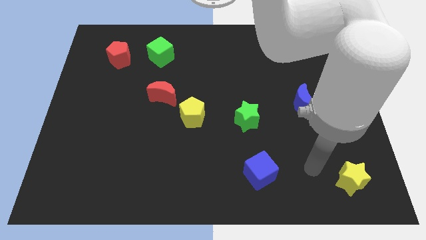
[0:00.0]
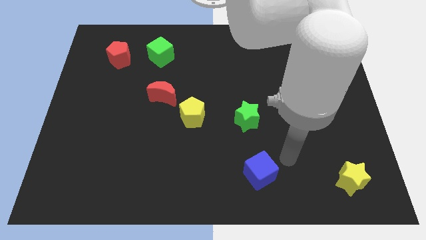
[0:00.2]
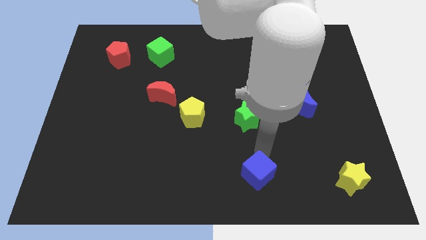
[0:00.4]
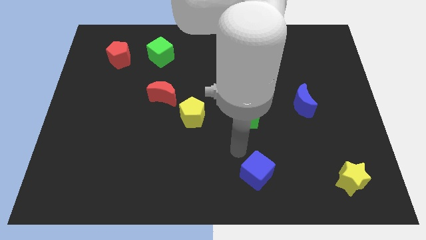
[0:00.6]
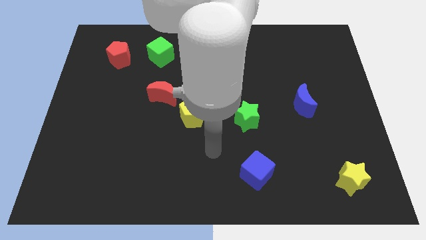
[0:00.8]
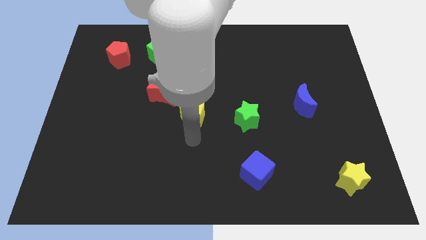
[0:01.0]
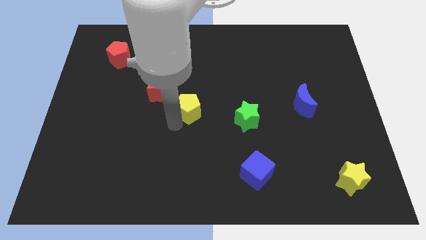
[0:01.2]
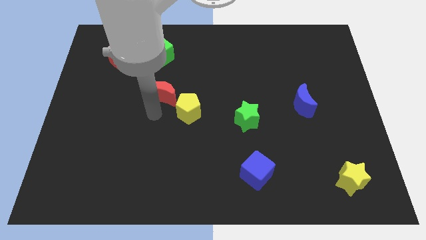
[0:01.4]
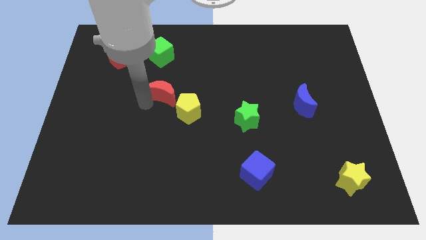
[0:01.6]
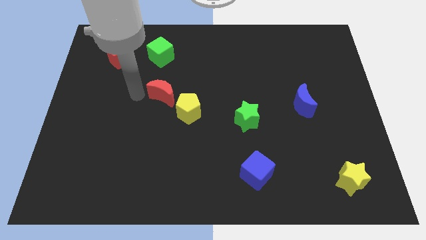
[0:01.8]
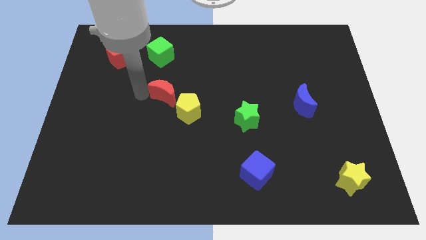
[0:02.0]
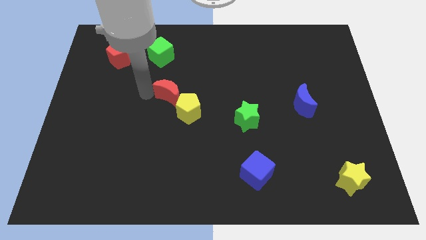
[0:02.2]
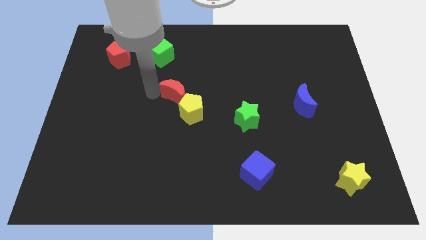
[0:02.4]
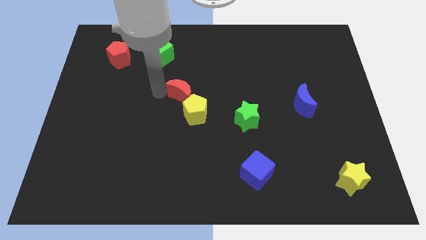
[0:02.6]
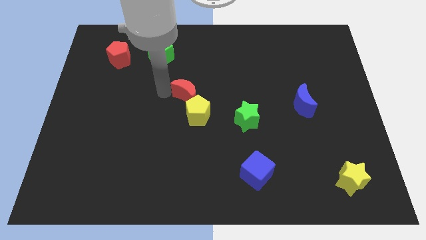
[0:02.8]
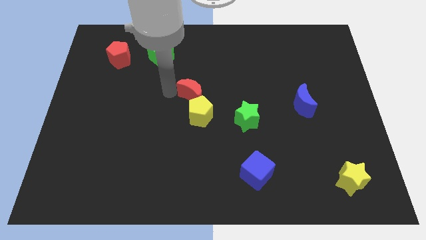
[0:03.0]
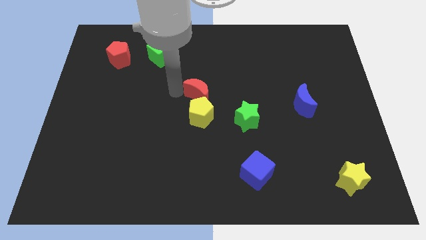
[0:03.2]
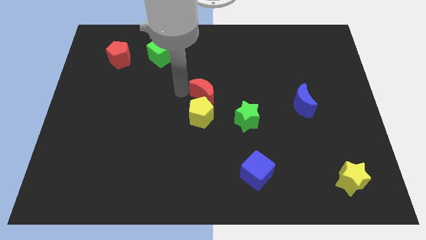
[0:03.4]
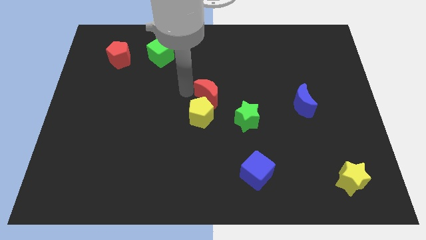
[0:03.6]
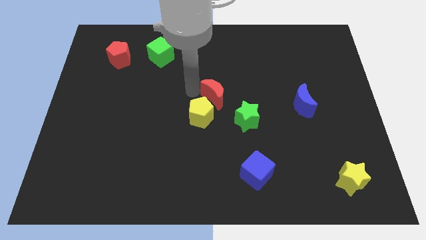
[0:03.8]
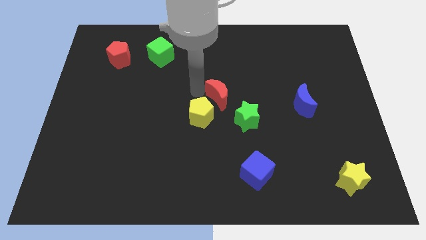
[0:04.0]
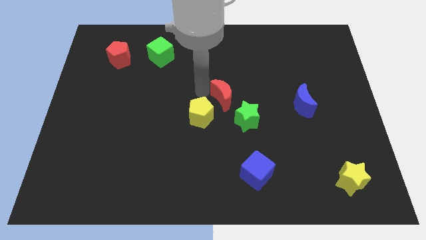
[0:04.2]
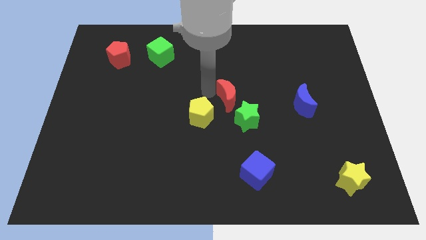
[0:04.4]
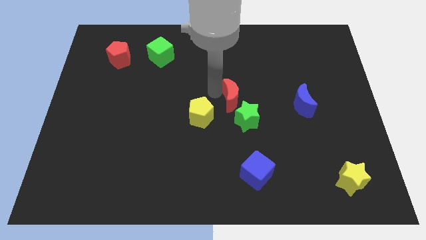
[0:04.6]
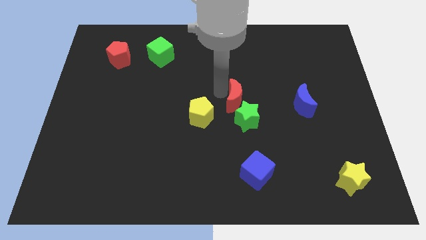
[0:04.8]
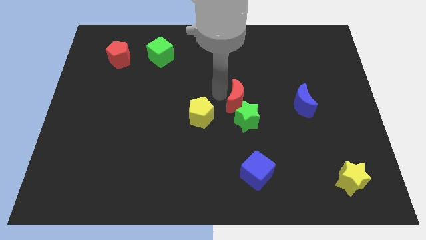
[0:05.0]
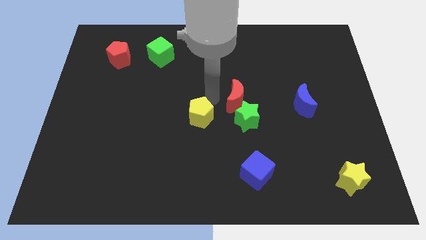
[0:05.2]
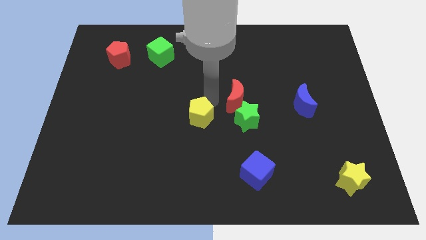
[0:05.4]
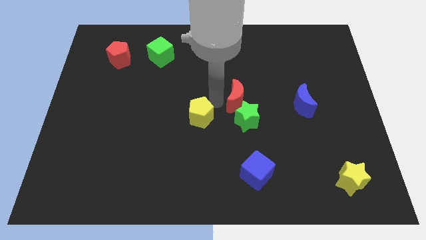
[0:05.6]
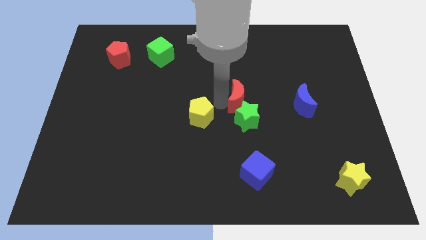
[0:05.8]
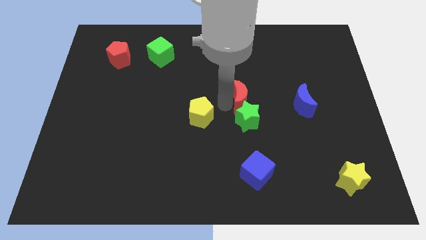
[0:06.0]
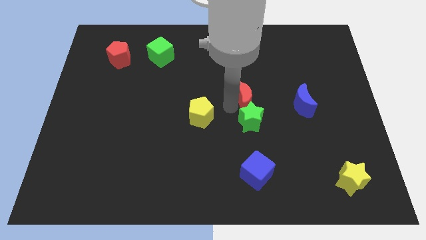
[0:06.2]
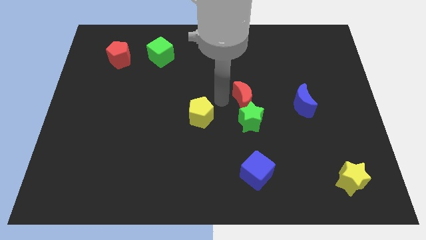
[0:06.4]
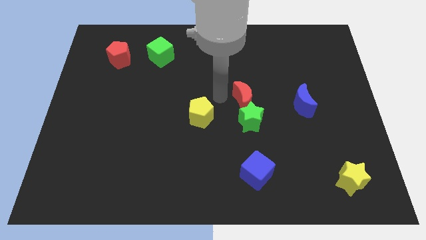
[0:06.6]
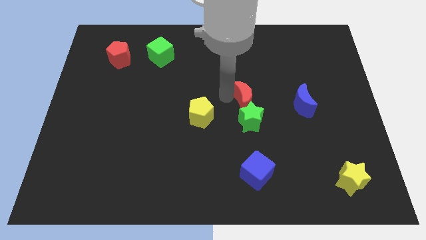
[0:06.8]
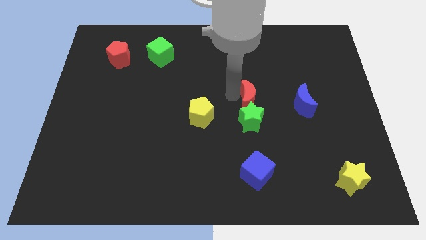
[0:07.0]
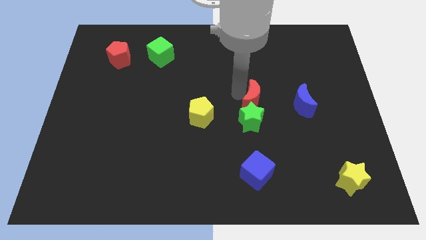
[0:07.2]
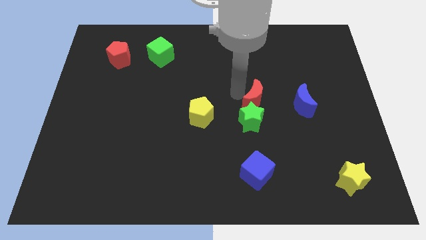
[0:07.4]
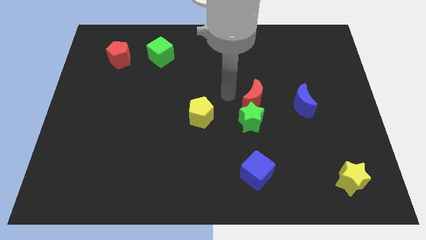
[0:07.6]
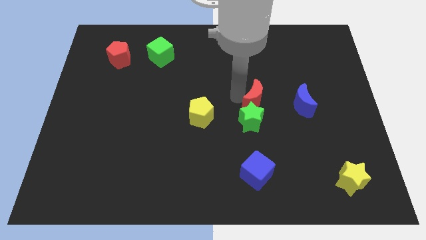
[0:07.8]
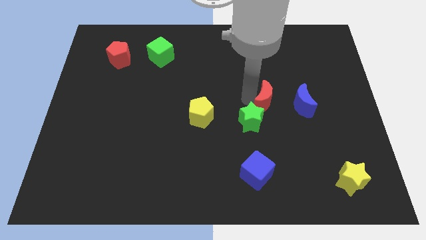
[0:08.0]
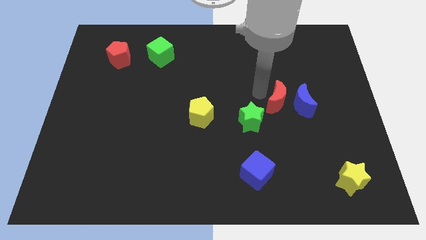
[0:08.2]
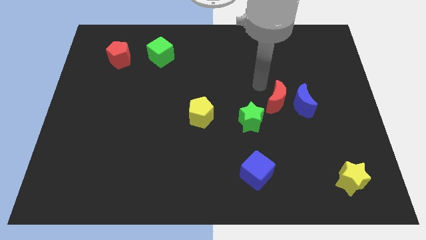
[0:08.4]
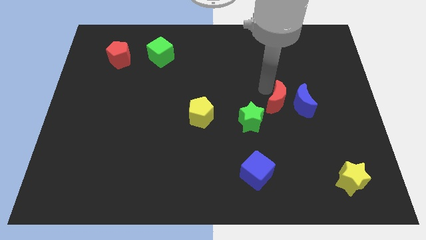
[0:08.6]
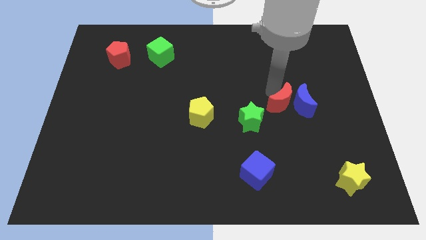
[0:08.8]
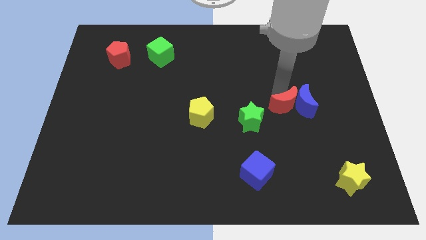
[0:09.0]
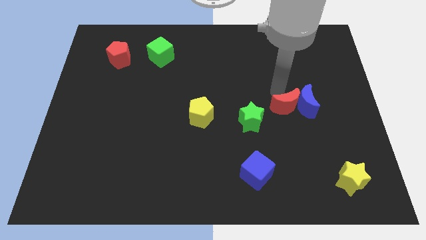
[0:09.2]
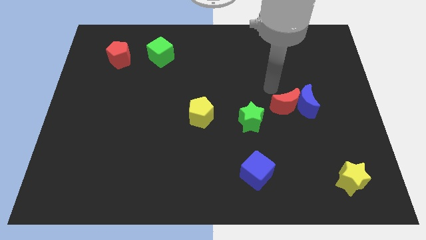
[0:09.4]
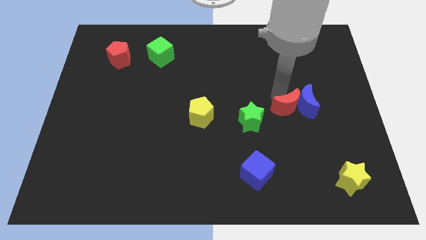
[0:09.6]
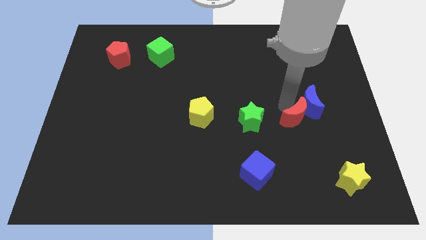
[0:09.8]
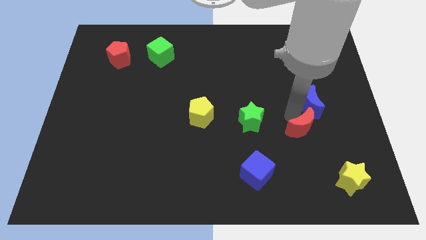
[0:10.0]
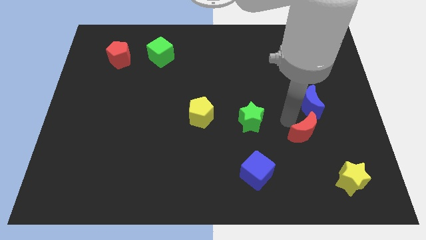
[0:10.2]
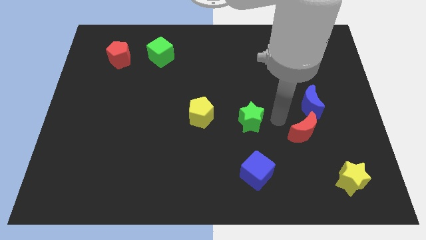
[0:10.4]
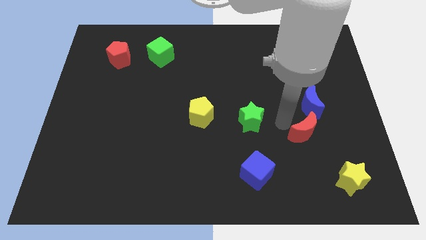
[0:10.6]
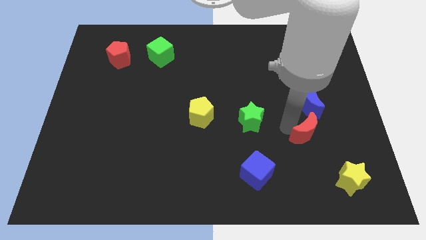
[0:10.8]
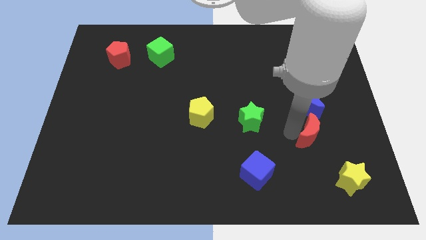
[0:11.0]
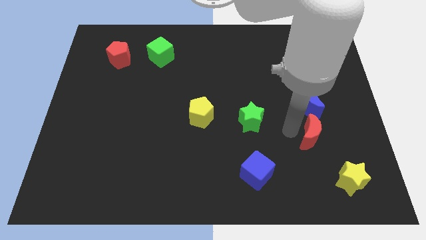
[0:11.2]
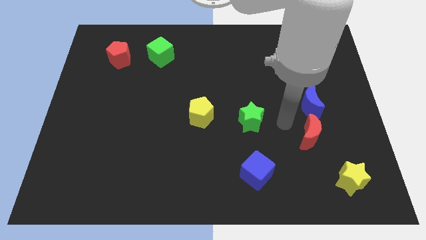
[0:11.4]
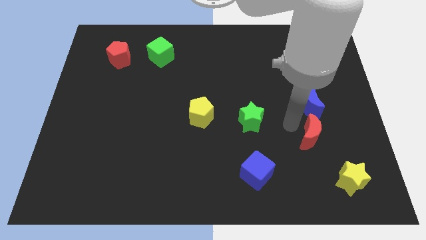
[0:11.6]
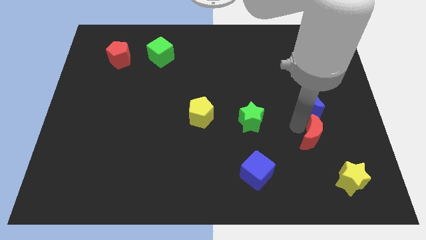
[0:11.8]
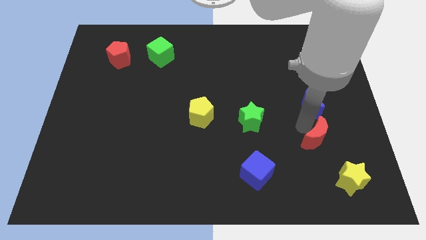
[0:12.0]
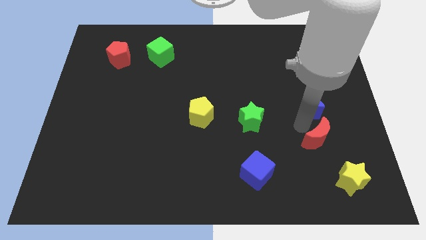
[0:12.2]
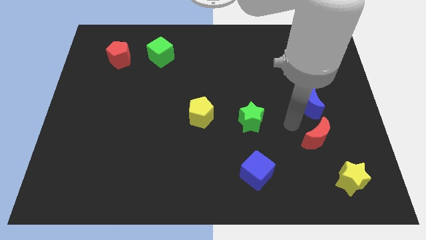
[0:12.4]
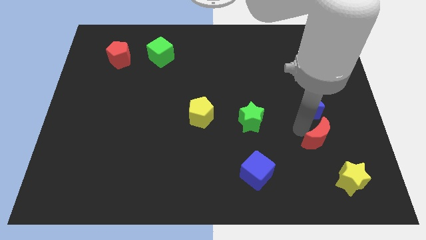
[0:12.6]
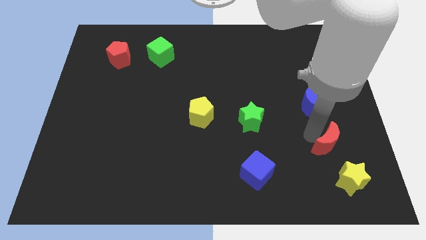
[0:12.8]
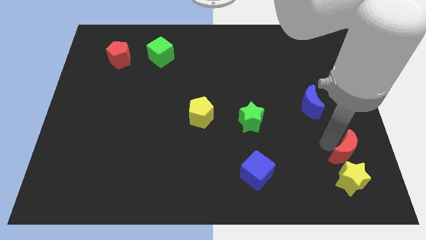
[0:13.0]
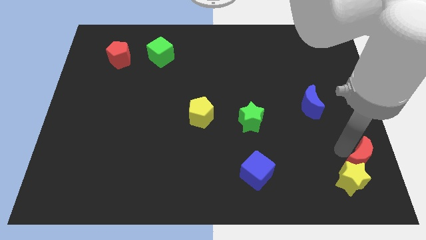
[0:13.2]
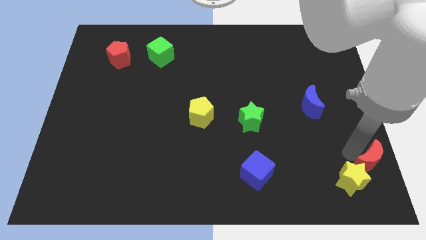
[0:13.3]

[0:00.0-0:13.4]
slide the red moon to the bottom right of the board
